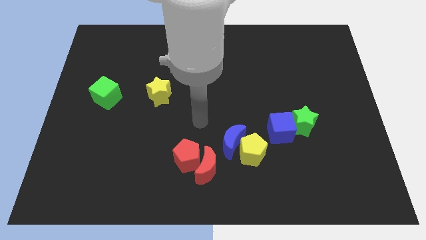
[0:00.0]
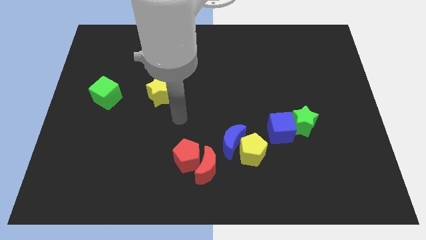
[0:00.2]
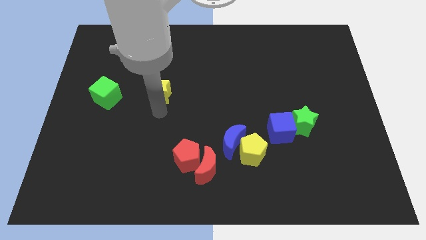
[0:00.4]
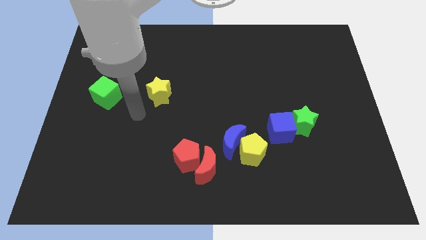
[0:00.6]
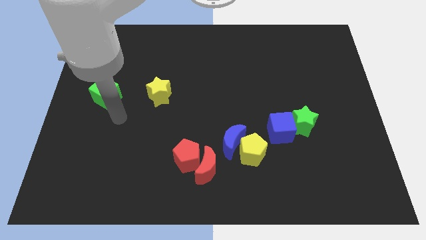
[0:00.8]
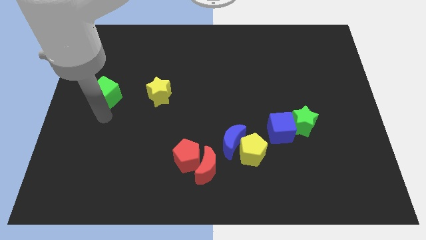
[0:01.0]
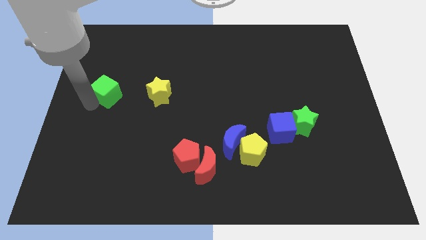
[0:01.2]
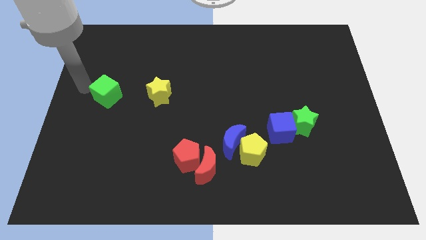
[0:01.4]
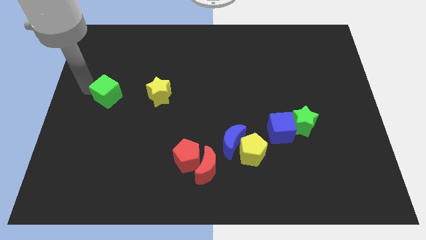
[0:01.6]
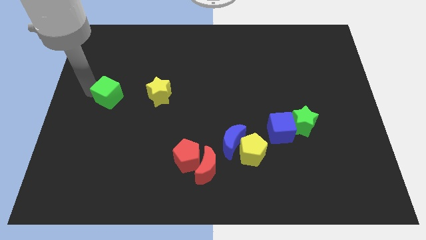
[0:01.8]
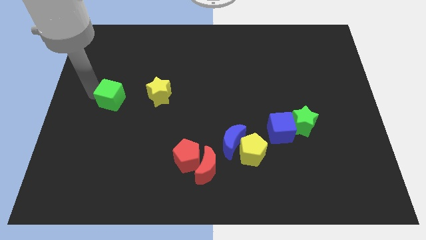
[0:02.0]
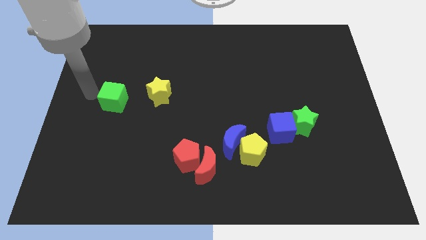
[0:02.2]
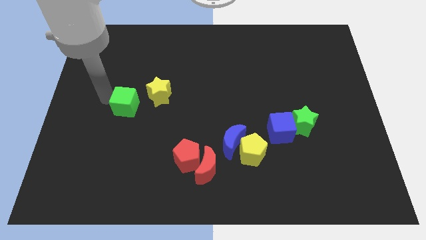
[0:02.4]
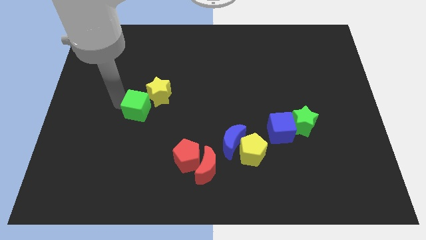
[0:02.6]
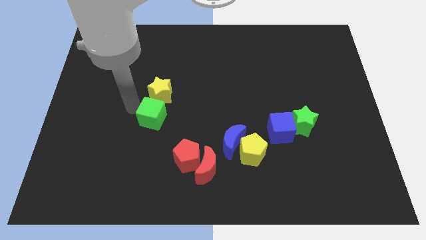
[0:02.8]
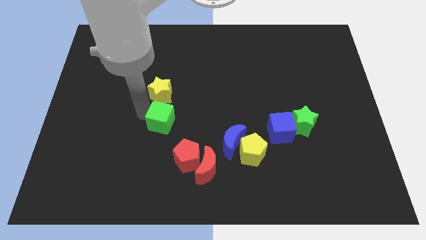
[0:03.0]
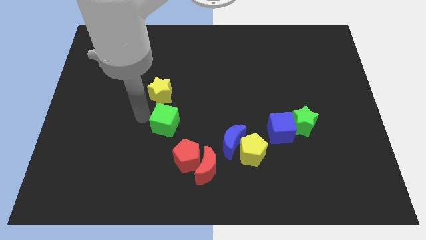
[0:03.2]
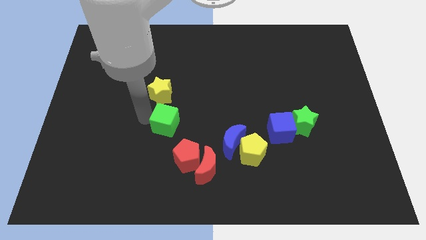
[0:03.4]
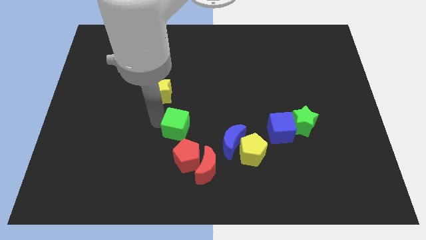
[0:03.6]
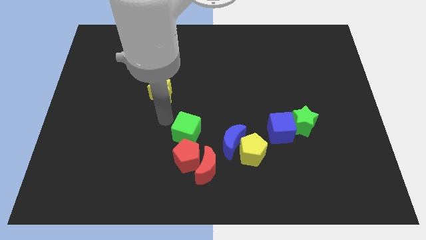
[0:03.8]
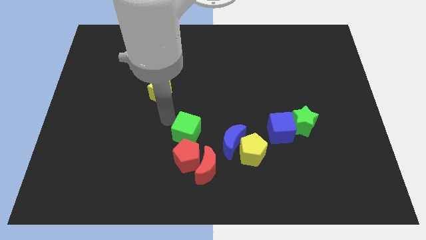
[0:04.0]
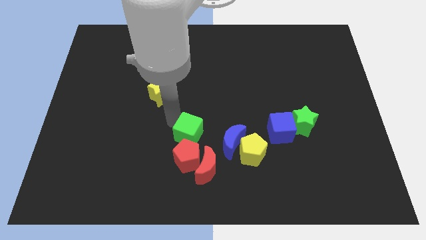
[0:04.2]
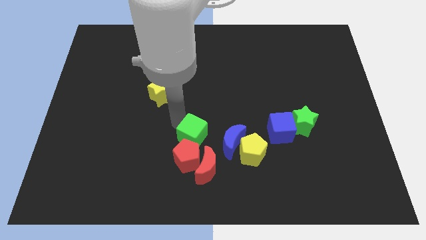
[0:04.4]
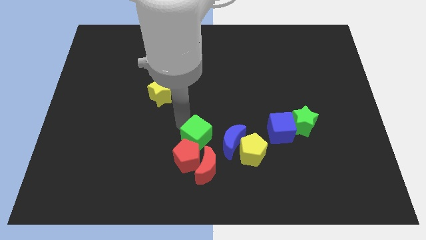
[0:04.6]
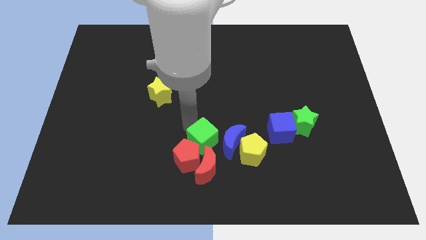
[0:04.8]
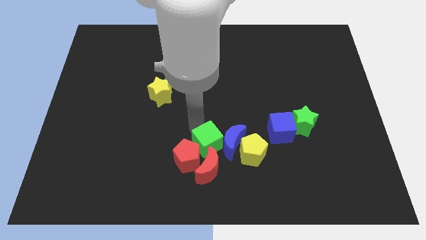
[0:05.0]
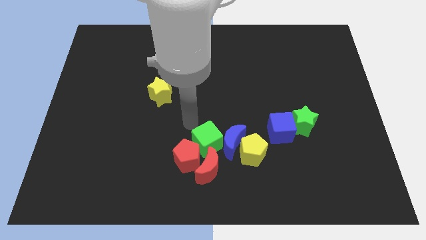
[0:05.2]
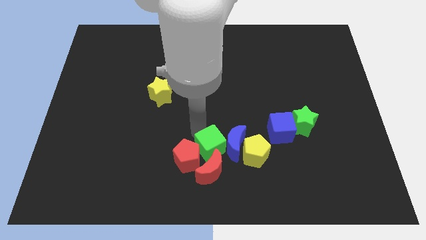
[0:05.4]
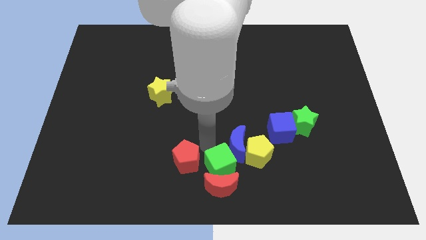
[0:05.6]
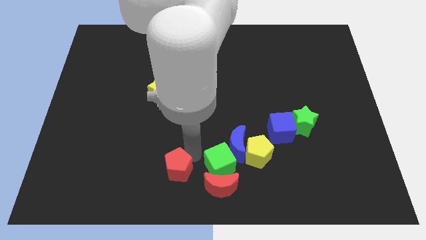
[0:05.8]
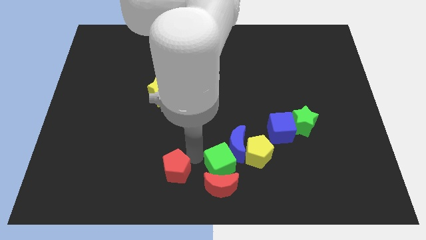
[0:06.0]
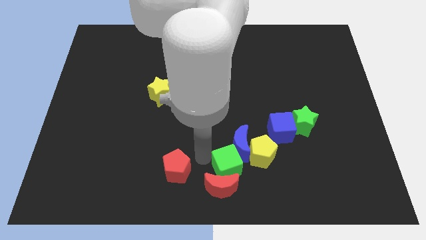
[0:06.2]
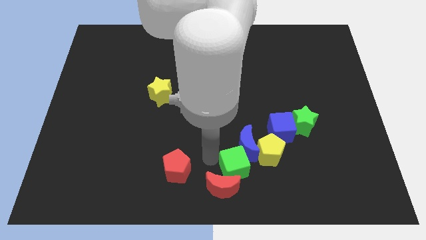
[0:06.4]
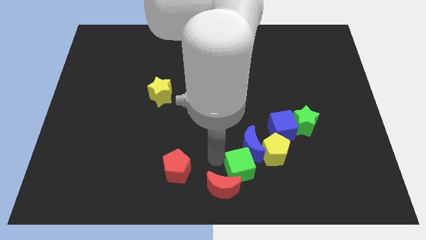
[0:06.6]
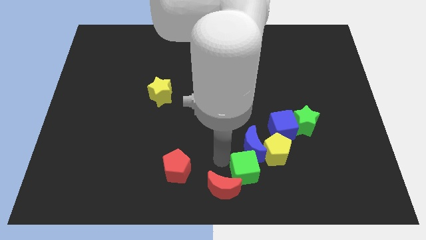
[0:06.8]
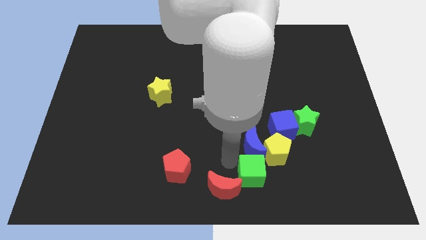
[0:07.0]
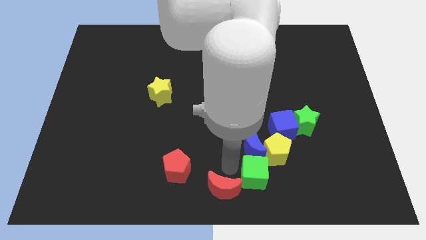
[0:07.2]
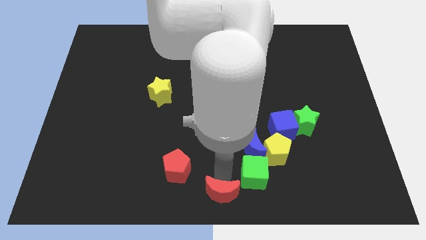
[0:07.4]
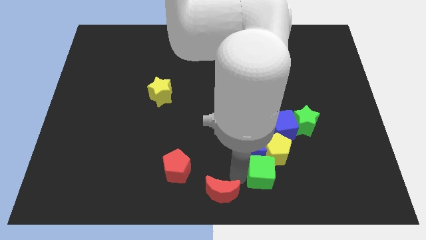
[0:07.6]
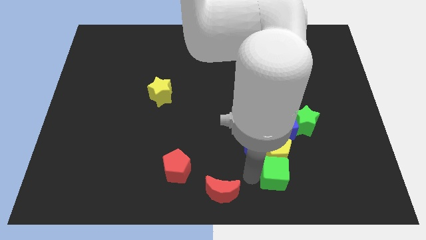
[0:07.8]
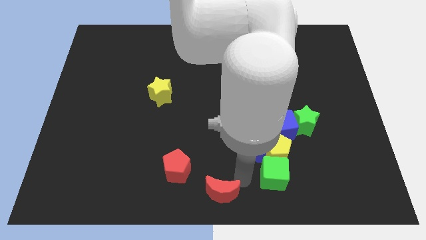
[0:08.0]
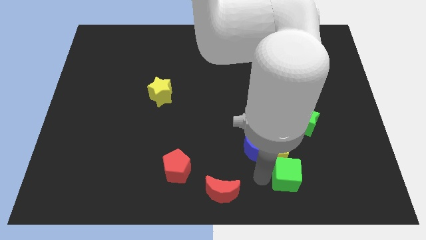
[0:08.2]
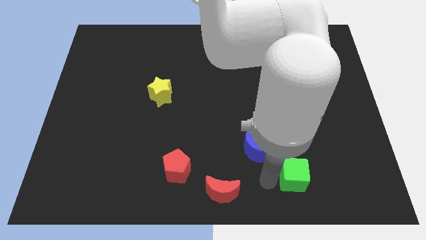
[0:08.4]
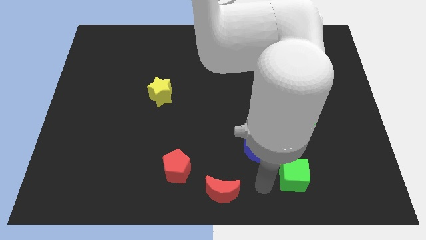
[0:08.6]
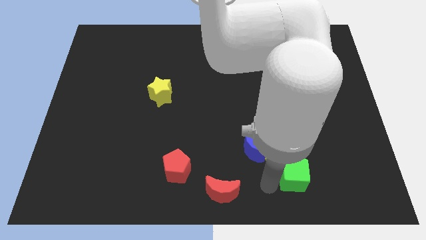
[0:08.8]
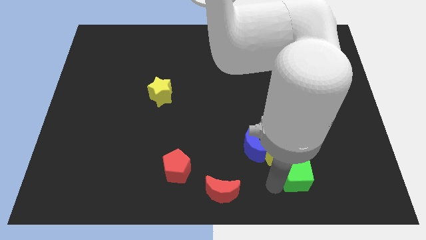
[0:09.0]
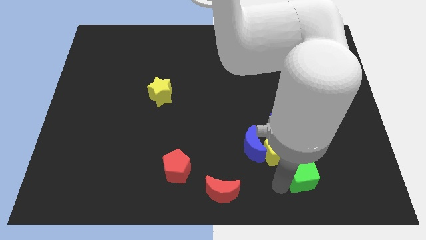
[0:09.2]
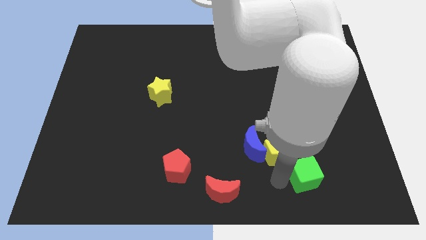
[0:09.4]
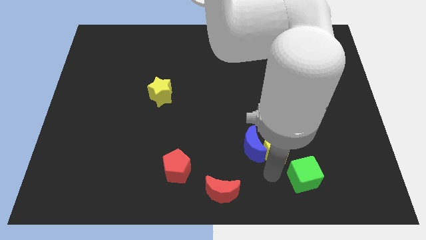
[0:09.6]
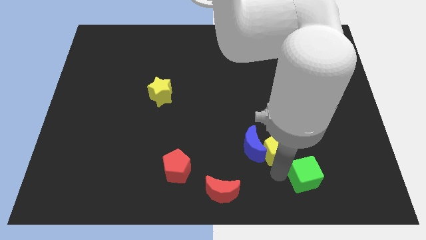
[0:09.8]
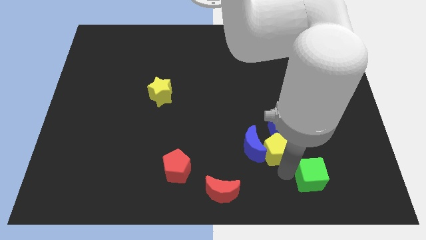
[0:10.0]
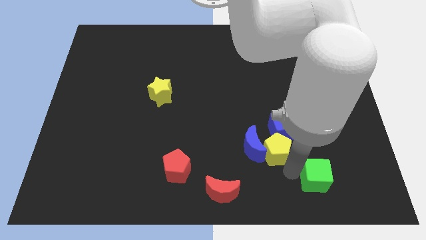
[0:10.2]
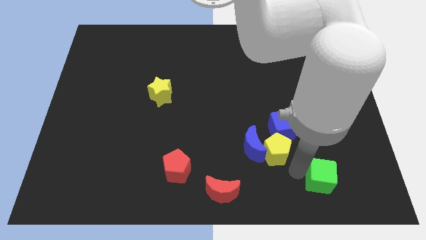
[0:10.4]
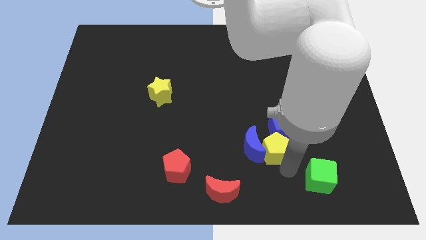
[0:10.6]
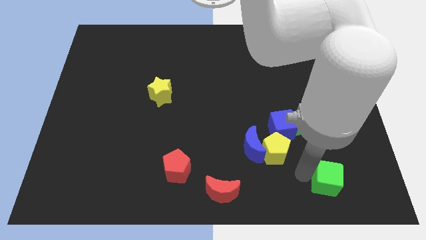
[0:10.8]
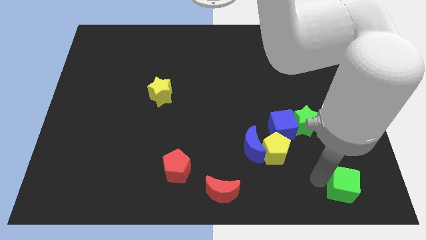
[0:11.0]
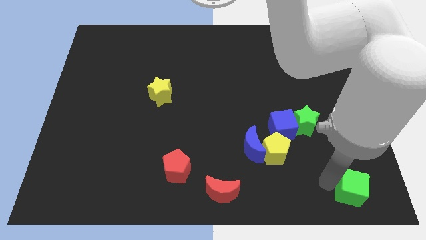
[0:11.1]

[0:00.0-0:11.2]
slide the green cube to the lower right corner

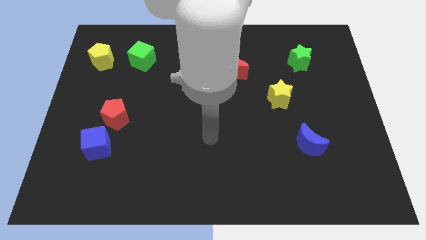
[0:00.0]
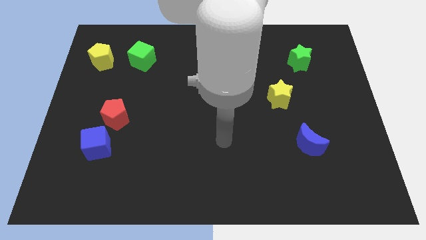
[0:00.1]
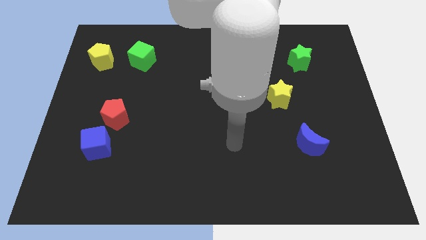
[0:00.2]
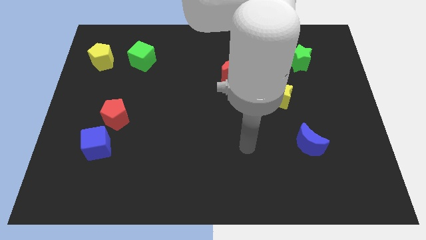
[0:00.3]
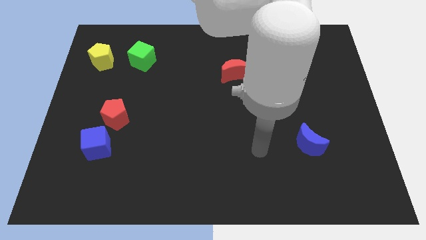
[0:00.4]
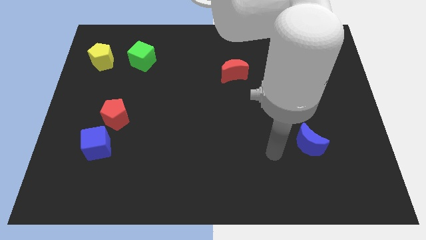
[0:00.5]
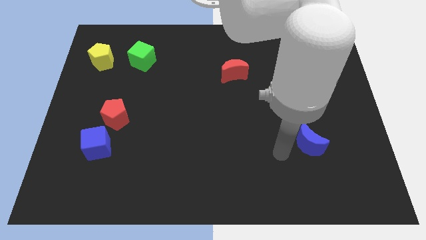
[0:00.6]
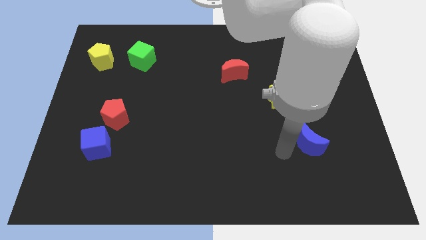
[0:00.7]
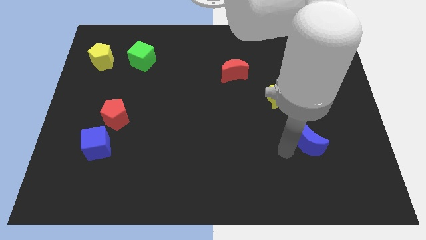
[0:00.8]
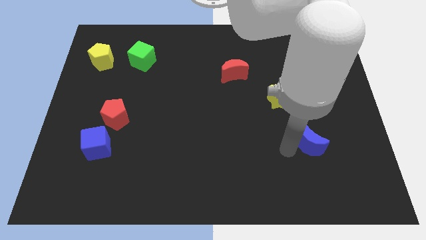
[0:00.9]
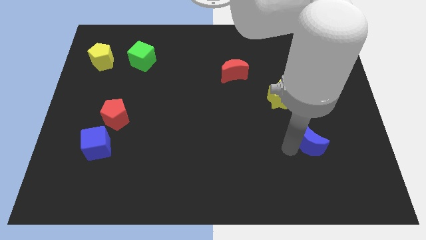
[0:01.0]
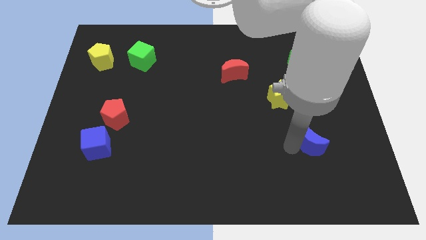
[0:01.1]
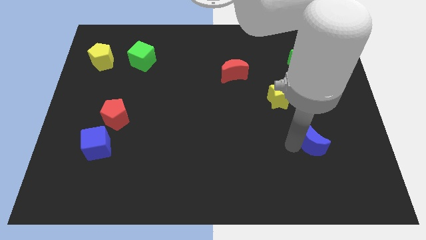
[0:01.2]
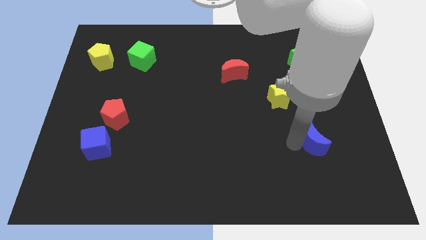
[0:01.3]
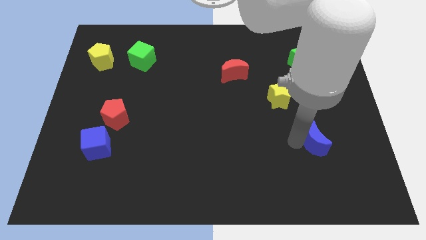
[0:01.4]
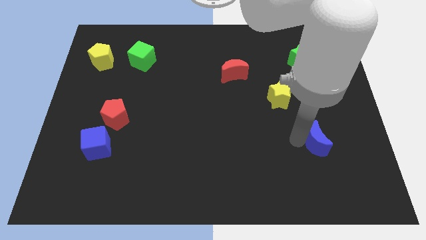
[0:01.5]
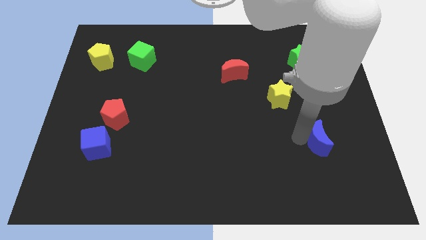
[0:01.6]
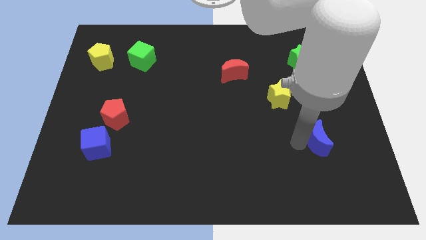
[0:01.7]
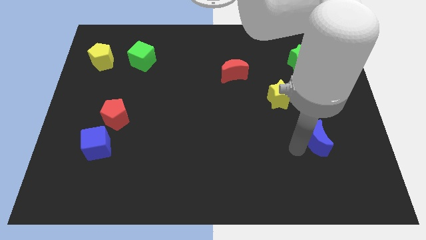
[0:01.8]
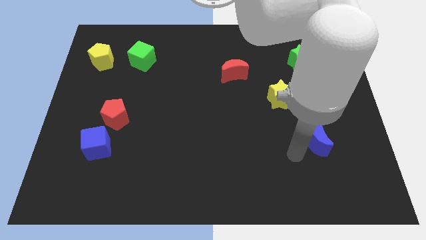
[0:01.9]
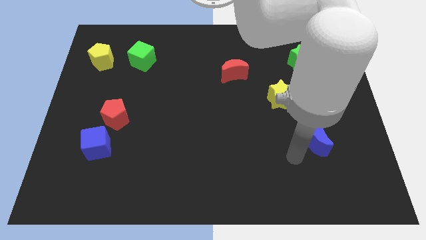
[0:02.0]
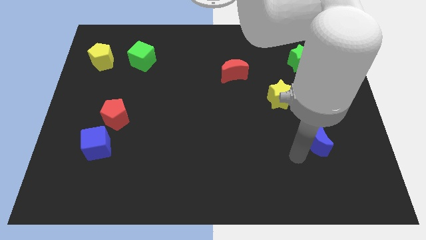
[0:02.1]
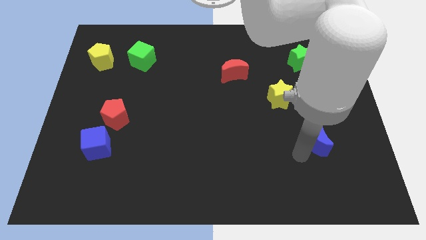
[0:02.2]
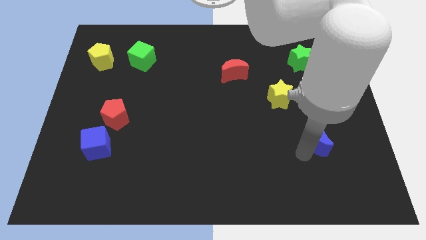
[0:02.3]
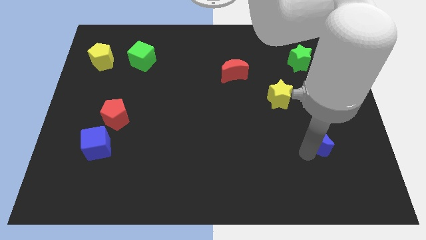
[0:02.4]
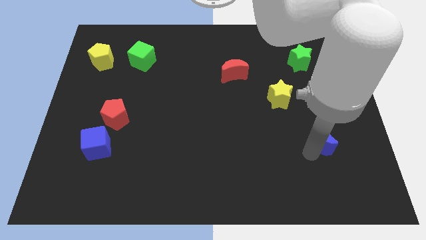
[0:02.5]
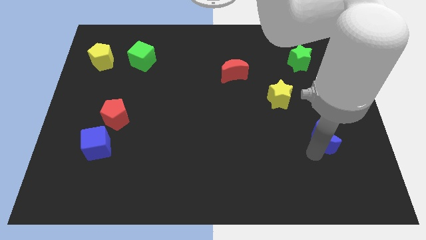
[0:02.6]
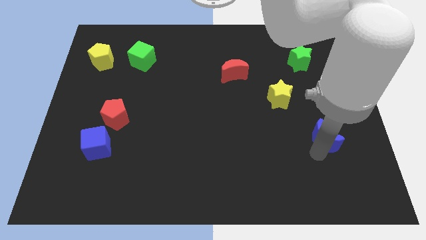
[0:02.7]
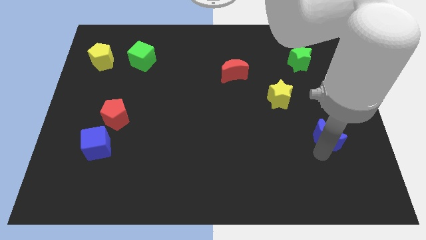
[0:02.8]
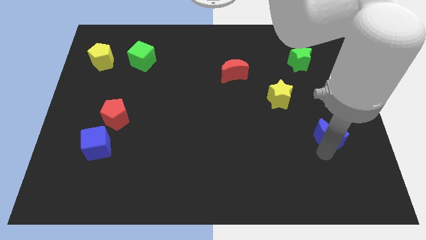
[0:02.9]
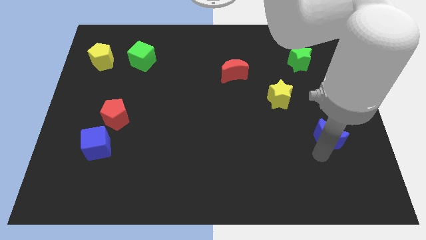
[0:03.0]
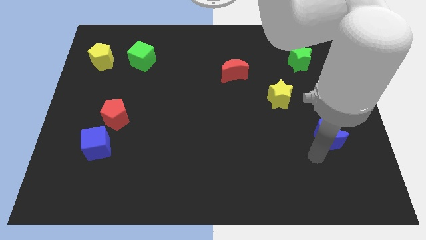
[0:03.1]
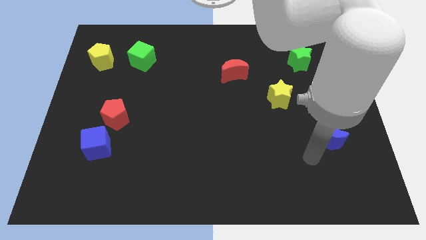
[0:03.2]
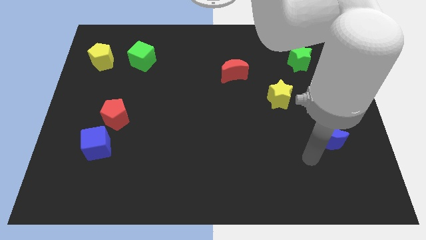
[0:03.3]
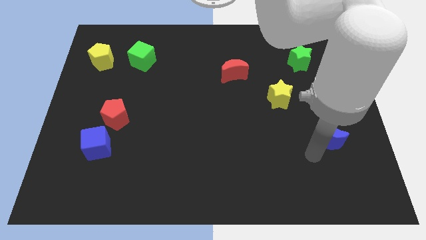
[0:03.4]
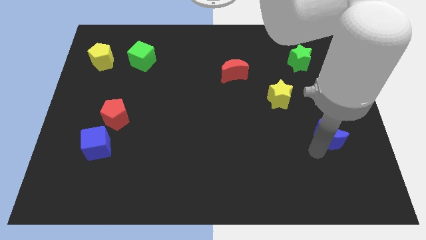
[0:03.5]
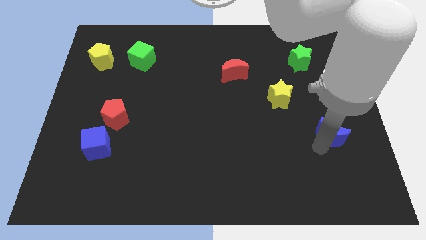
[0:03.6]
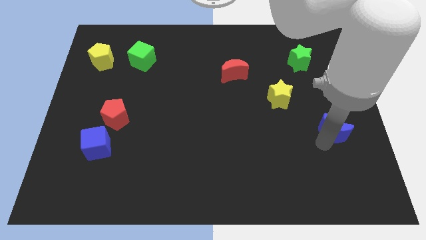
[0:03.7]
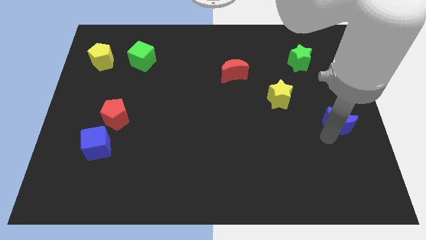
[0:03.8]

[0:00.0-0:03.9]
put the blue moon to the center right
